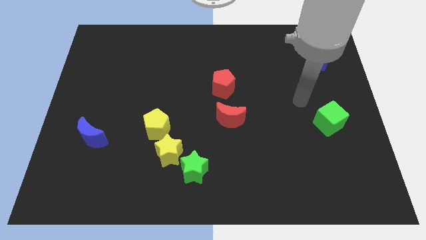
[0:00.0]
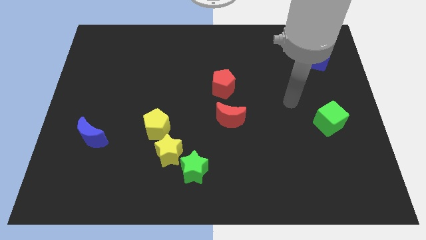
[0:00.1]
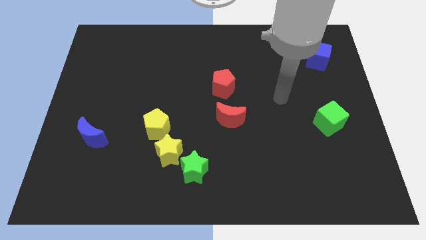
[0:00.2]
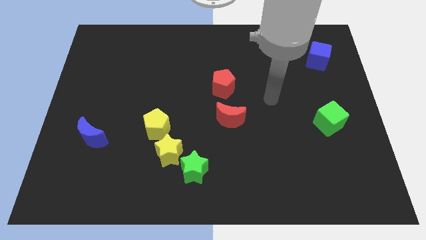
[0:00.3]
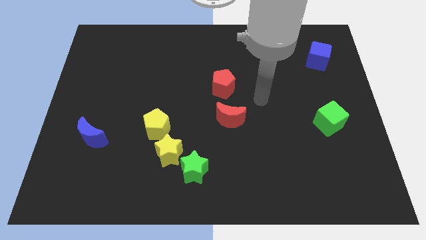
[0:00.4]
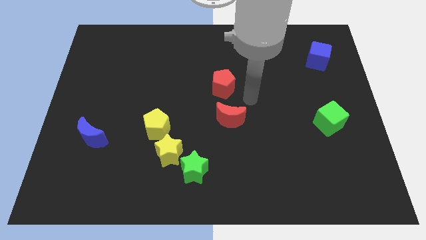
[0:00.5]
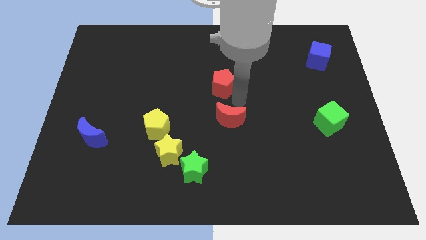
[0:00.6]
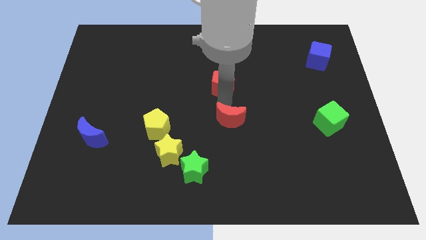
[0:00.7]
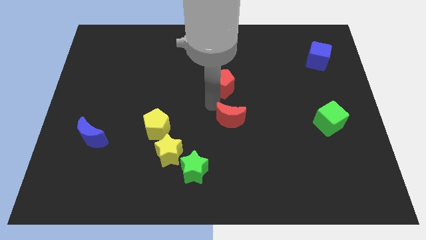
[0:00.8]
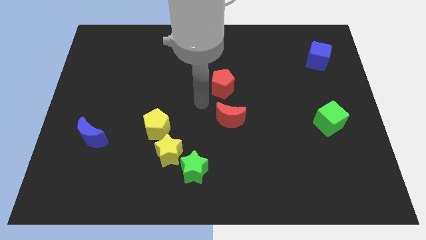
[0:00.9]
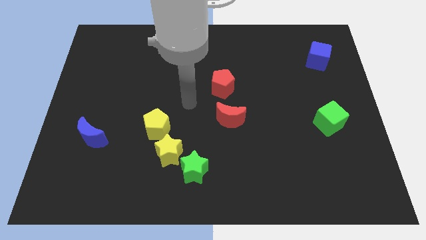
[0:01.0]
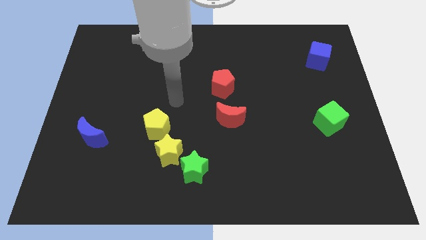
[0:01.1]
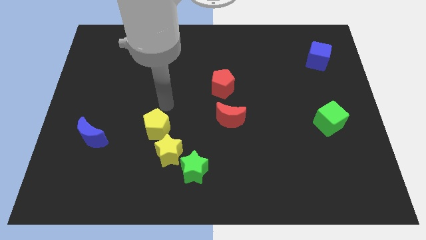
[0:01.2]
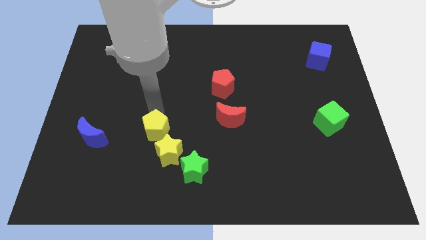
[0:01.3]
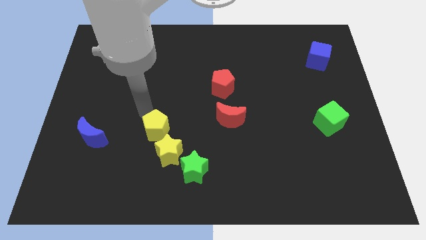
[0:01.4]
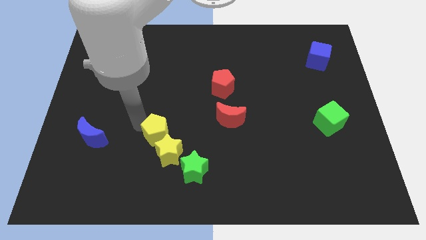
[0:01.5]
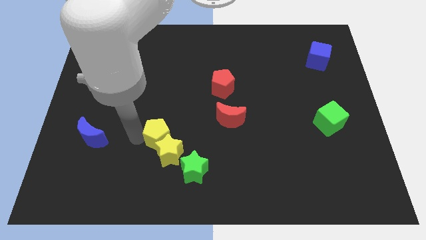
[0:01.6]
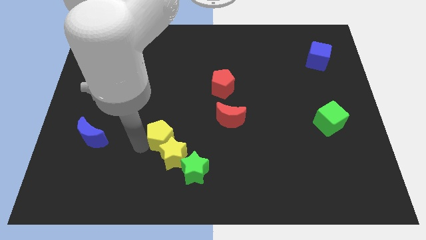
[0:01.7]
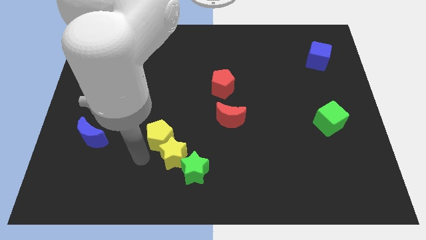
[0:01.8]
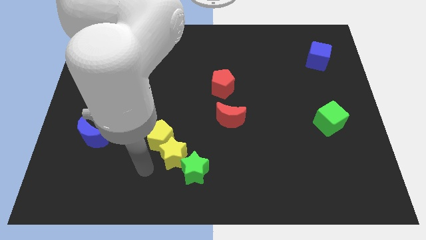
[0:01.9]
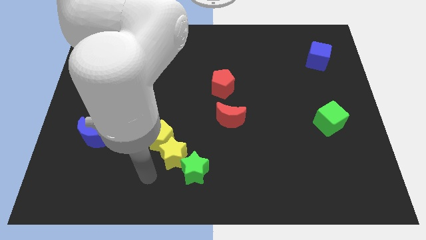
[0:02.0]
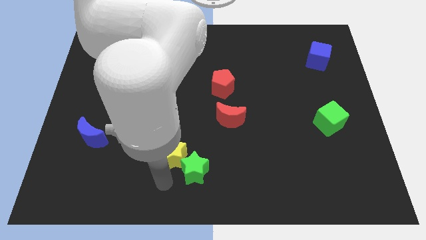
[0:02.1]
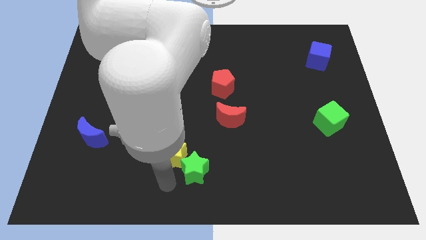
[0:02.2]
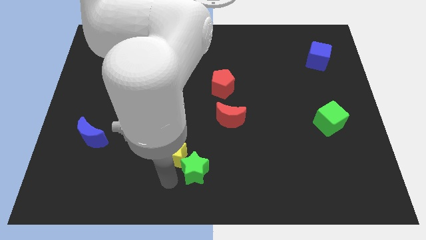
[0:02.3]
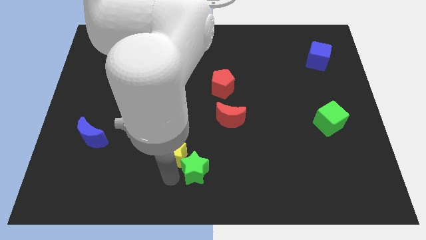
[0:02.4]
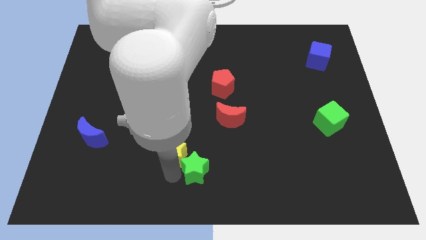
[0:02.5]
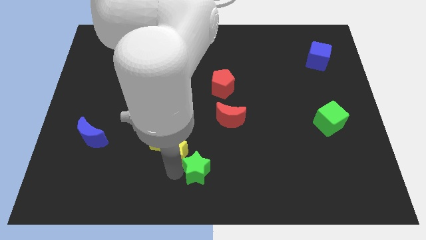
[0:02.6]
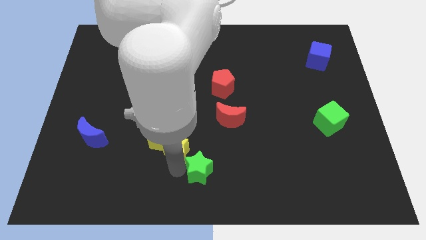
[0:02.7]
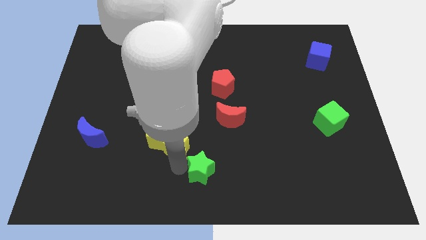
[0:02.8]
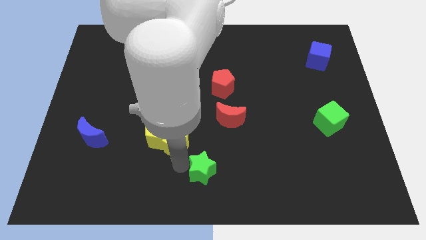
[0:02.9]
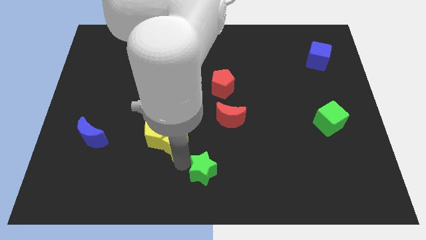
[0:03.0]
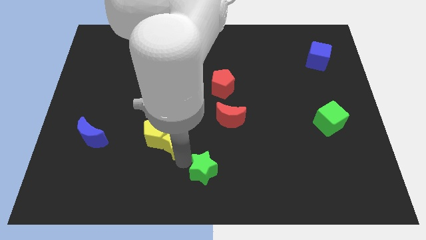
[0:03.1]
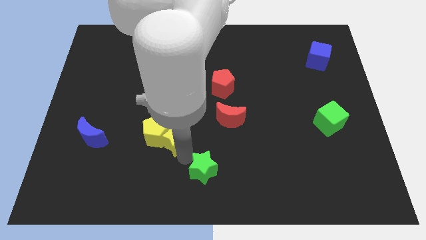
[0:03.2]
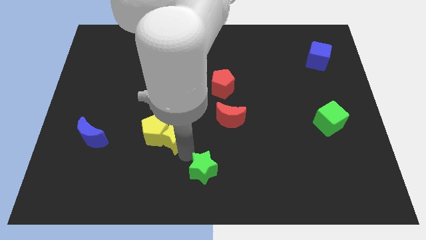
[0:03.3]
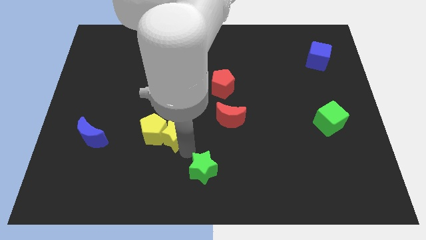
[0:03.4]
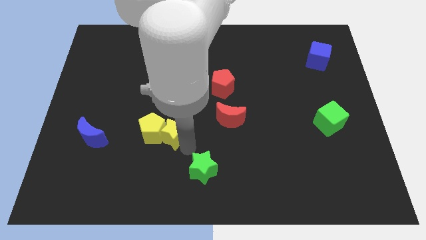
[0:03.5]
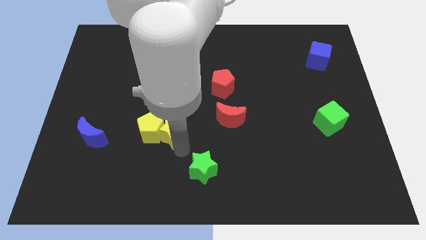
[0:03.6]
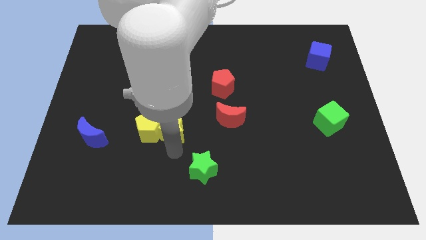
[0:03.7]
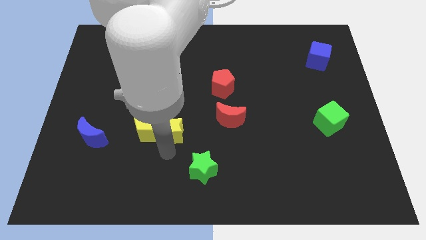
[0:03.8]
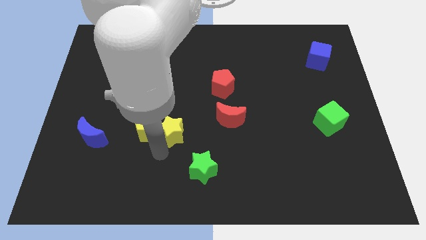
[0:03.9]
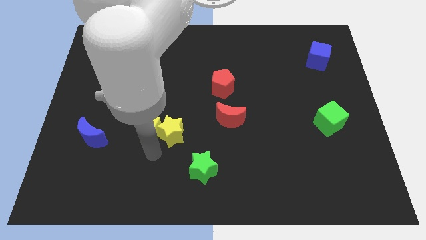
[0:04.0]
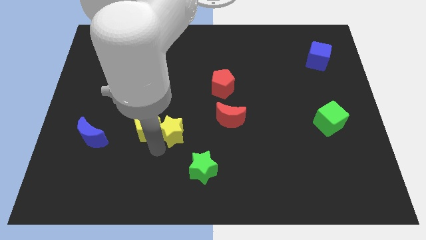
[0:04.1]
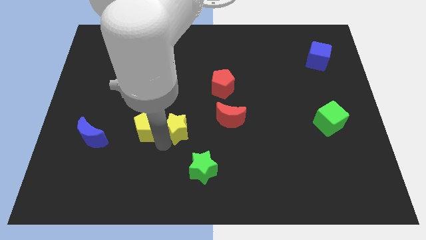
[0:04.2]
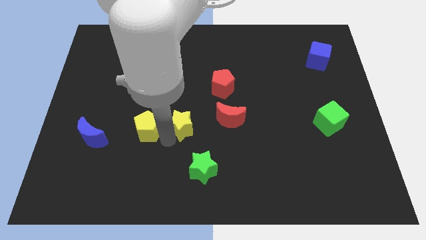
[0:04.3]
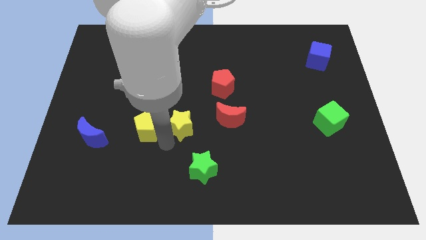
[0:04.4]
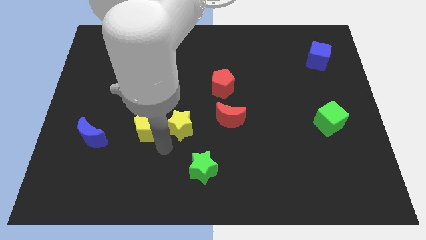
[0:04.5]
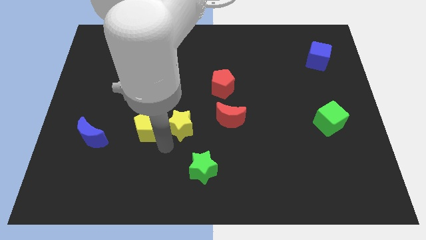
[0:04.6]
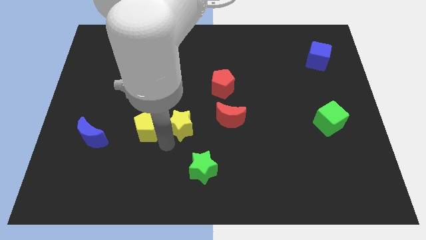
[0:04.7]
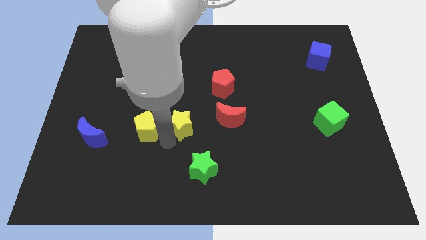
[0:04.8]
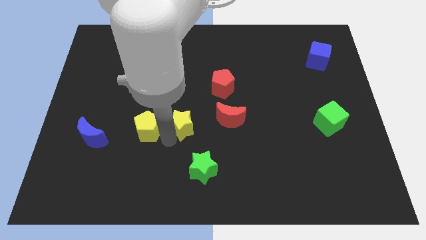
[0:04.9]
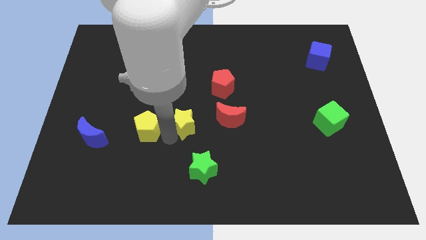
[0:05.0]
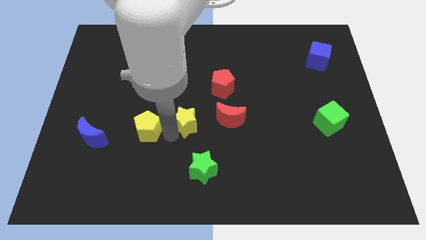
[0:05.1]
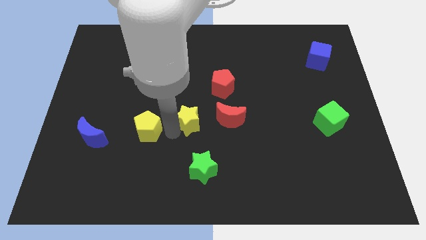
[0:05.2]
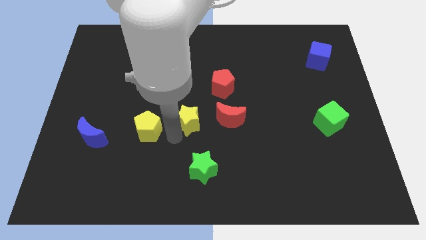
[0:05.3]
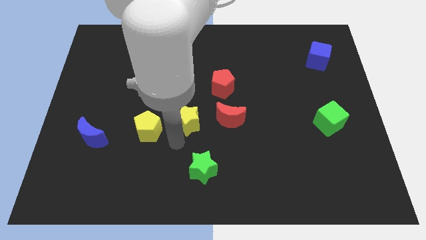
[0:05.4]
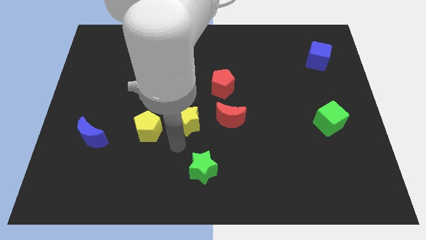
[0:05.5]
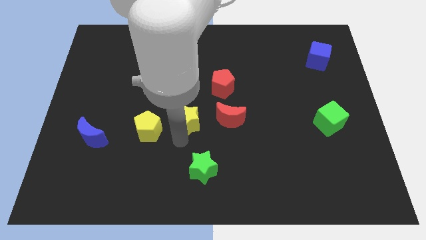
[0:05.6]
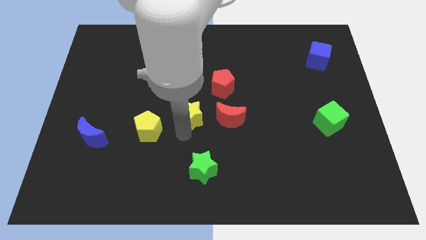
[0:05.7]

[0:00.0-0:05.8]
slide the yellow star to the bottom left of the red pentagon
